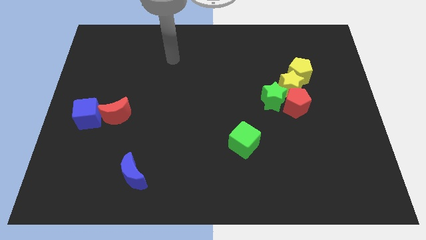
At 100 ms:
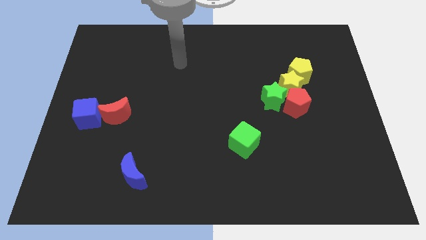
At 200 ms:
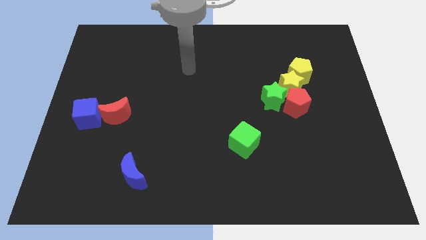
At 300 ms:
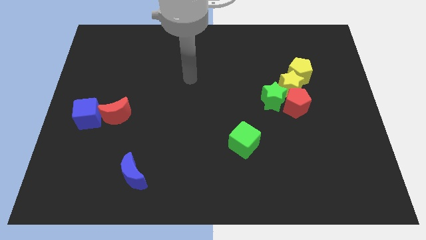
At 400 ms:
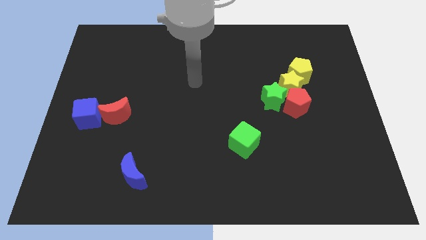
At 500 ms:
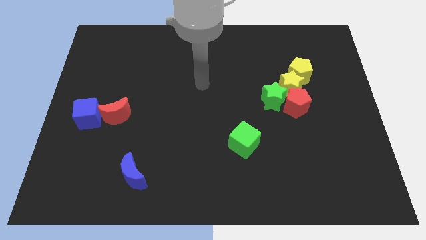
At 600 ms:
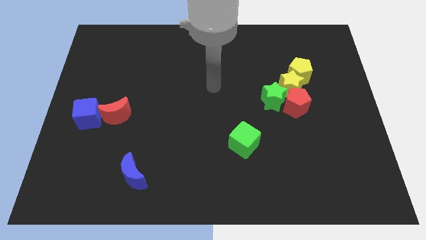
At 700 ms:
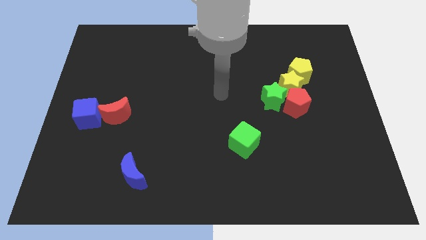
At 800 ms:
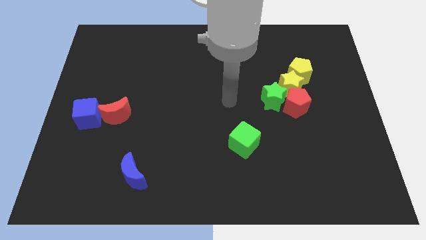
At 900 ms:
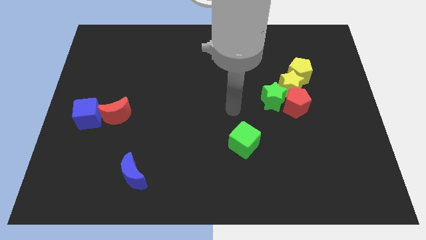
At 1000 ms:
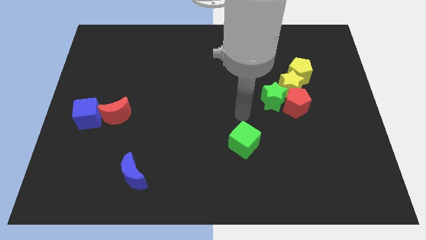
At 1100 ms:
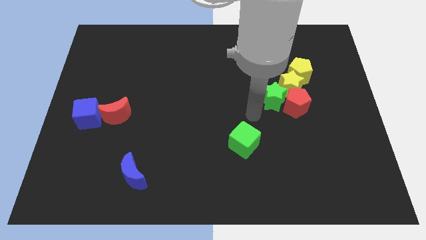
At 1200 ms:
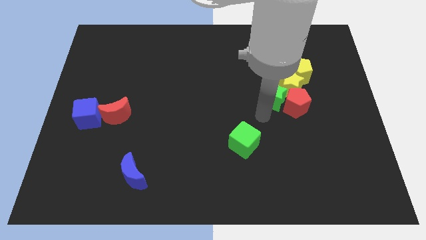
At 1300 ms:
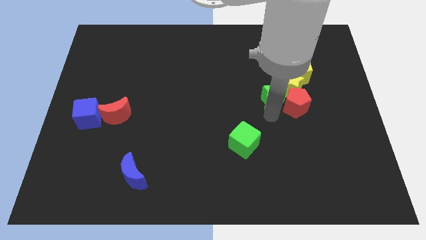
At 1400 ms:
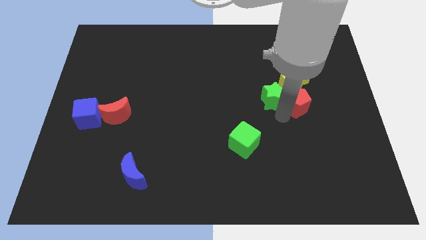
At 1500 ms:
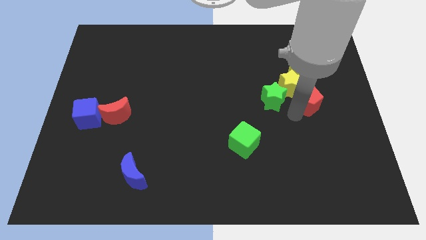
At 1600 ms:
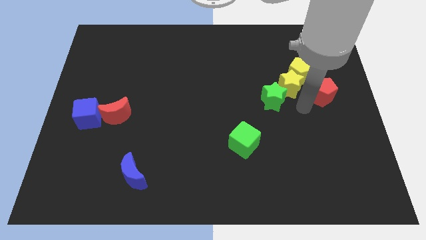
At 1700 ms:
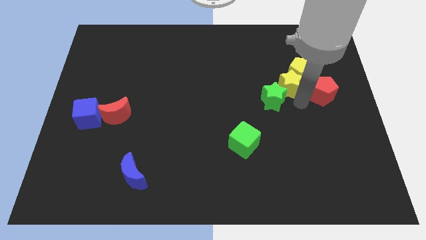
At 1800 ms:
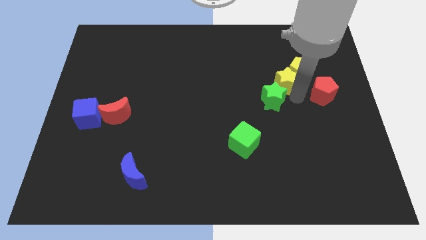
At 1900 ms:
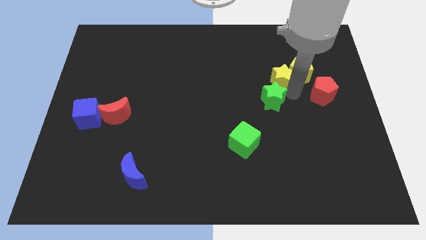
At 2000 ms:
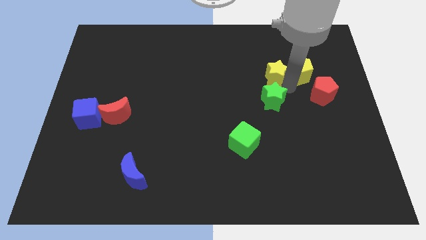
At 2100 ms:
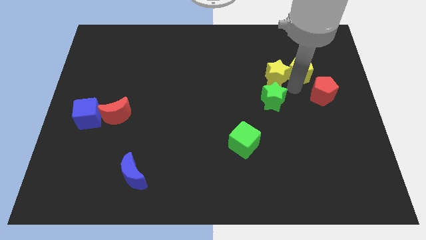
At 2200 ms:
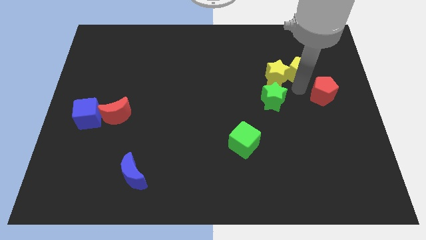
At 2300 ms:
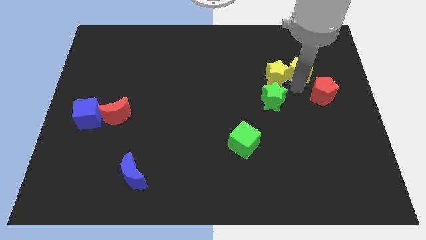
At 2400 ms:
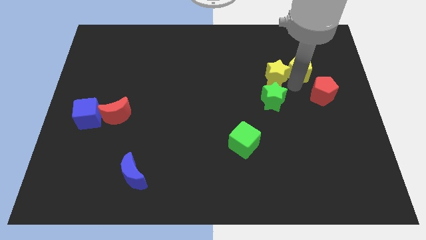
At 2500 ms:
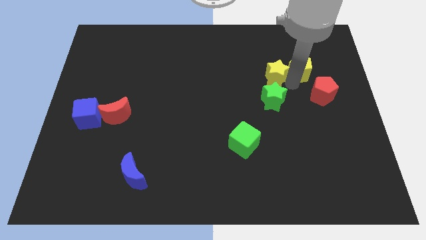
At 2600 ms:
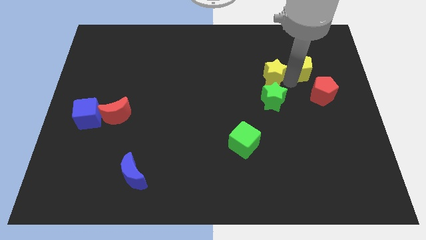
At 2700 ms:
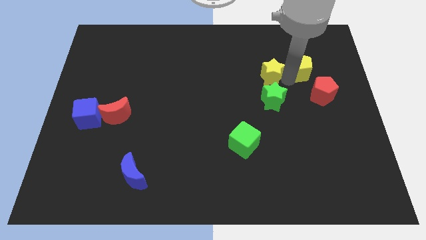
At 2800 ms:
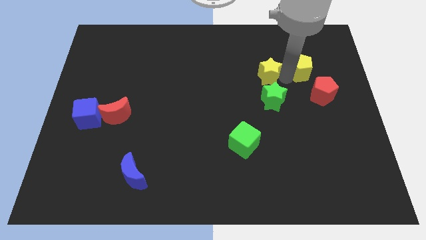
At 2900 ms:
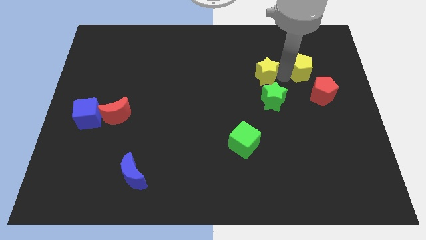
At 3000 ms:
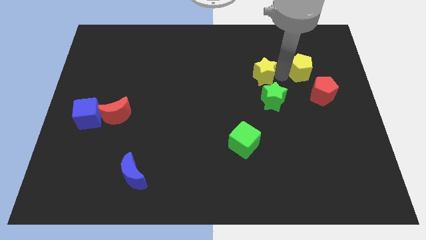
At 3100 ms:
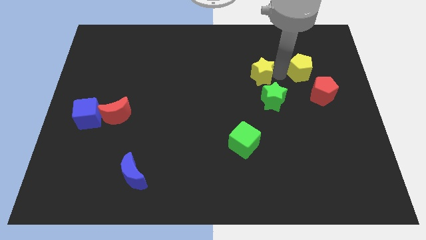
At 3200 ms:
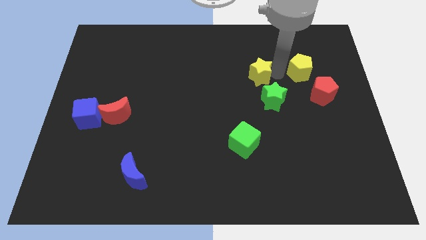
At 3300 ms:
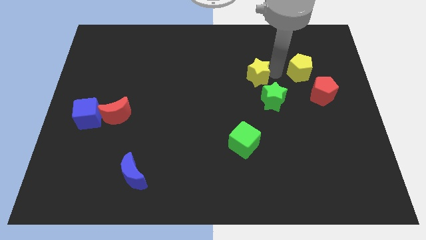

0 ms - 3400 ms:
pull the yellow star apart from the clump

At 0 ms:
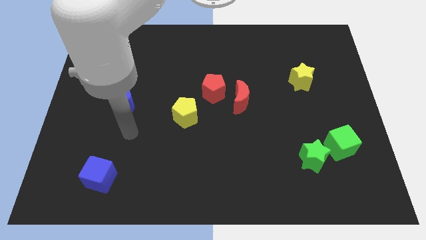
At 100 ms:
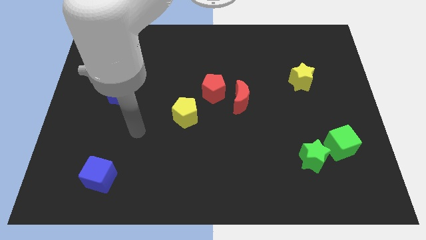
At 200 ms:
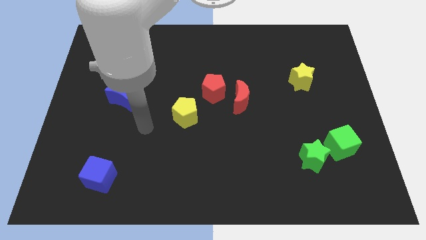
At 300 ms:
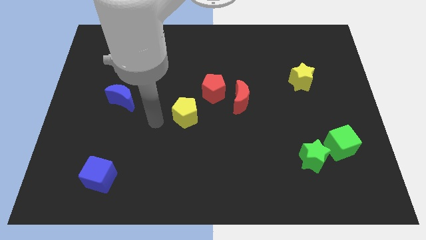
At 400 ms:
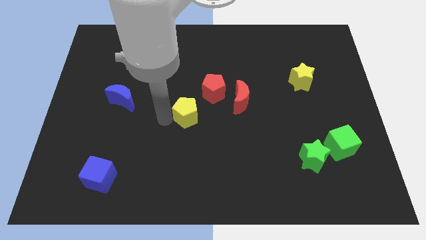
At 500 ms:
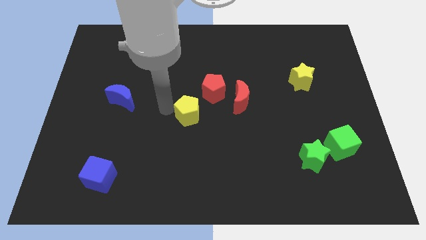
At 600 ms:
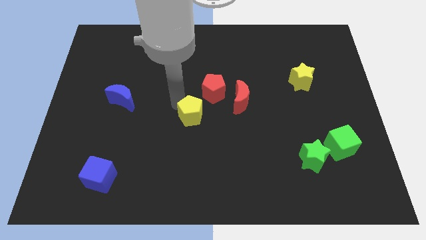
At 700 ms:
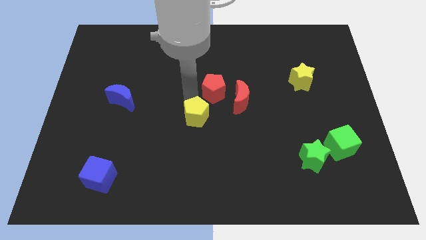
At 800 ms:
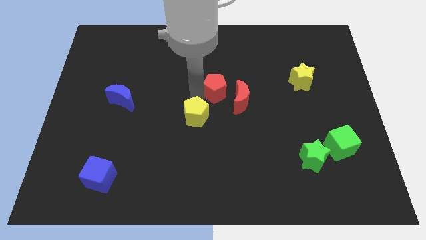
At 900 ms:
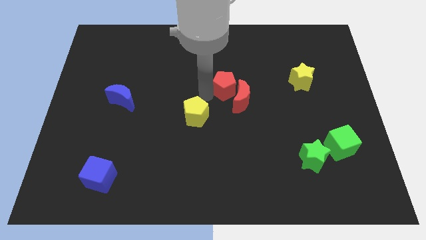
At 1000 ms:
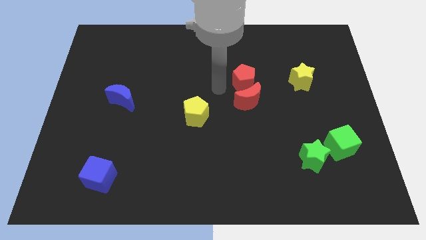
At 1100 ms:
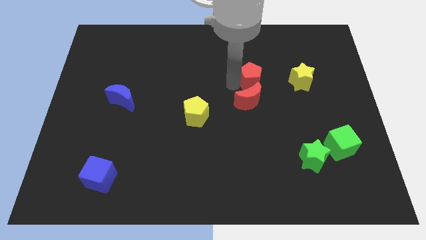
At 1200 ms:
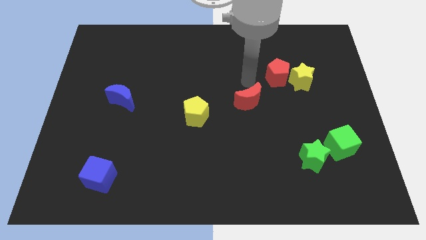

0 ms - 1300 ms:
separate the red moon from the red pentagon

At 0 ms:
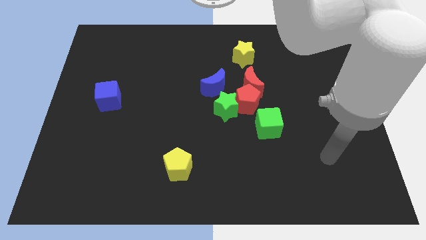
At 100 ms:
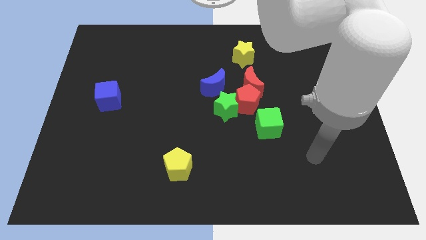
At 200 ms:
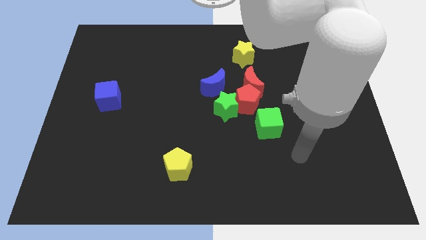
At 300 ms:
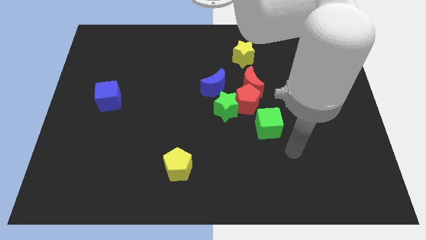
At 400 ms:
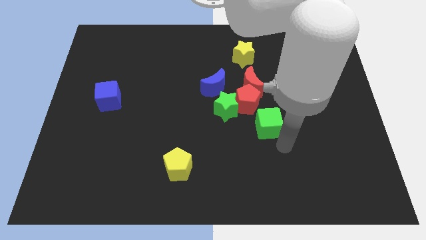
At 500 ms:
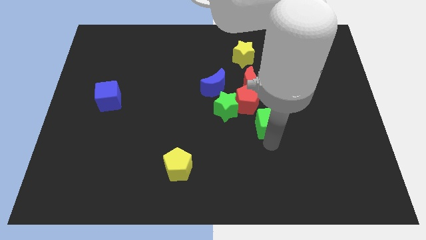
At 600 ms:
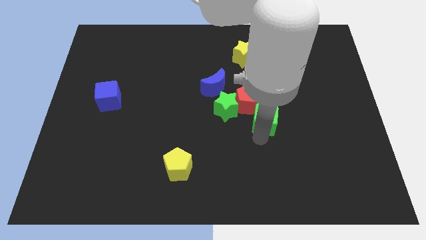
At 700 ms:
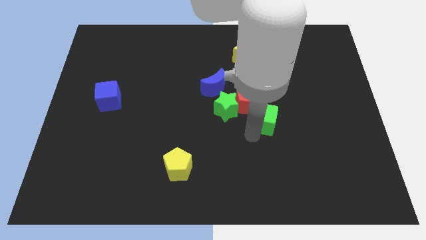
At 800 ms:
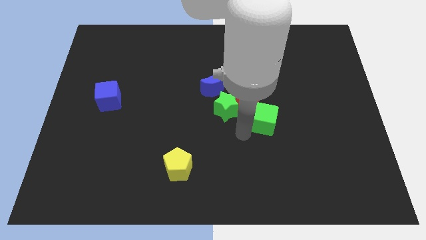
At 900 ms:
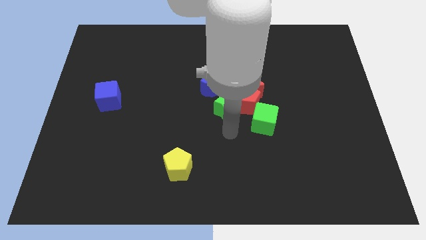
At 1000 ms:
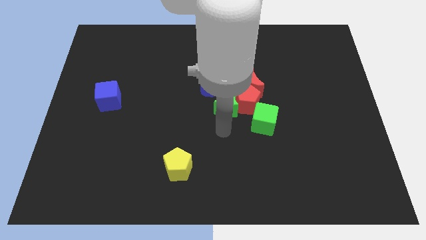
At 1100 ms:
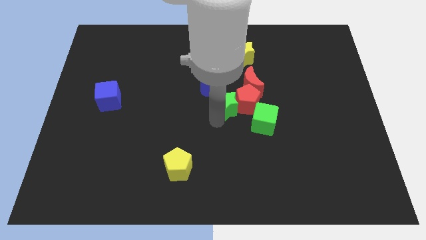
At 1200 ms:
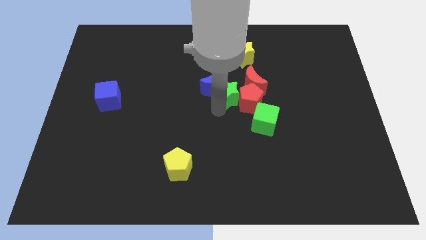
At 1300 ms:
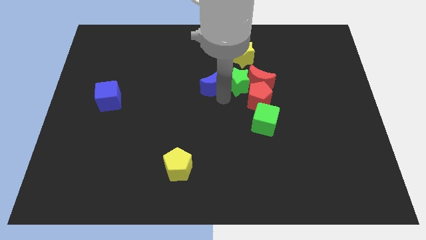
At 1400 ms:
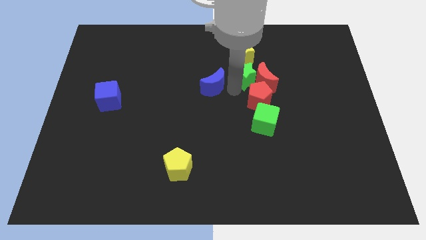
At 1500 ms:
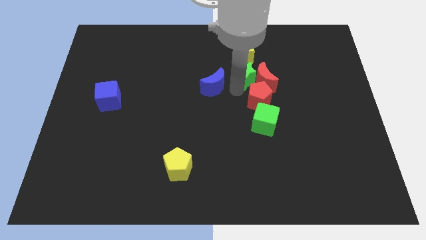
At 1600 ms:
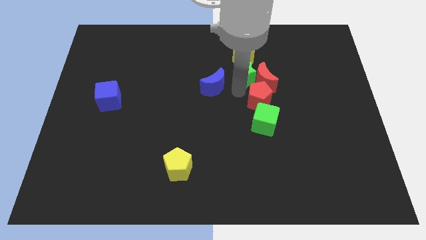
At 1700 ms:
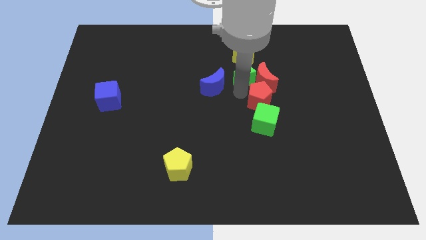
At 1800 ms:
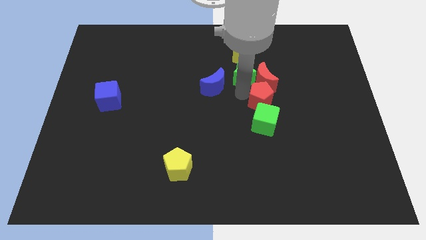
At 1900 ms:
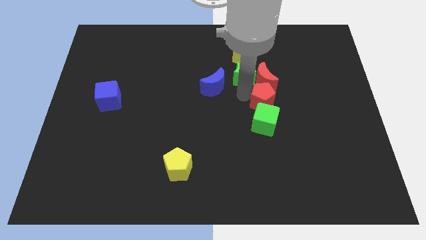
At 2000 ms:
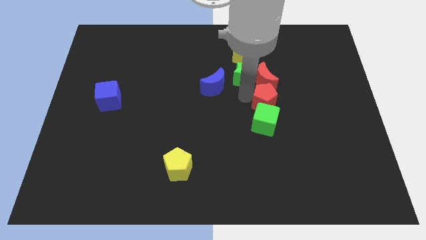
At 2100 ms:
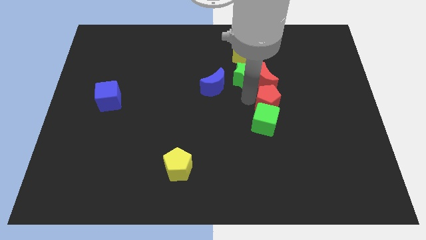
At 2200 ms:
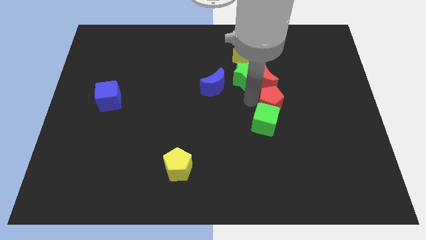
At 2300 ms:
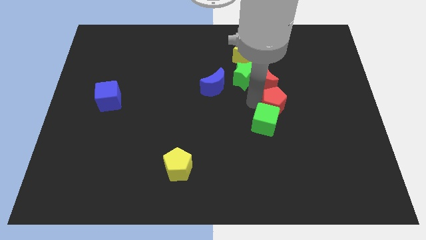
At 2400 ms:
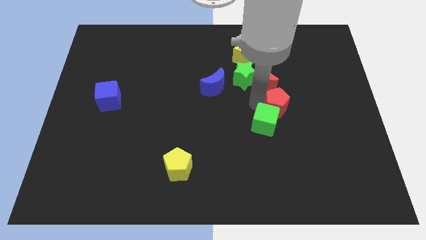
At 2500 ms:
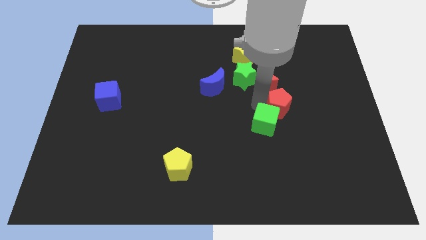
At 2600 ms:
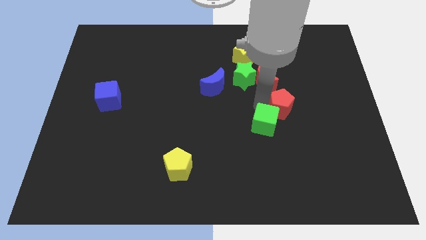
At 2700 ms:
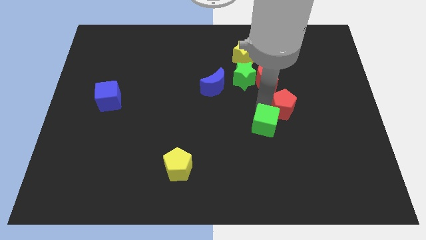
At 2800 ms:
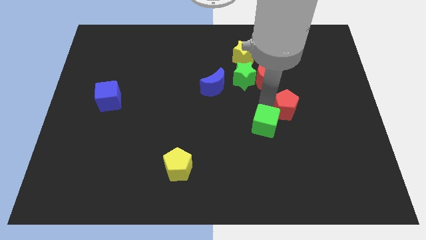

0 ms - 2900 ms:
move the red pentagon away from the clump

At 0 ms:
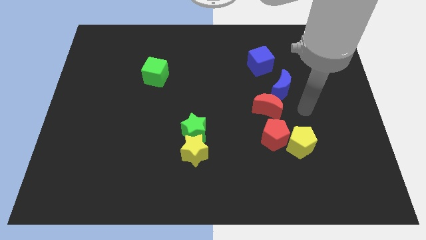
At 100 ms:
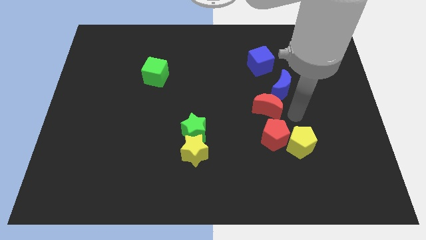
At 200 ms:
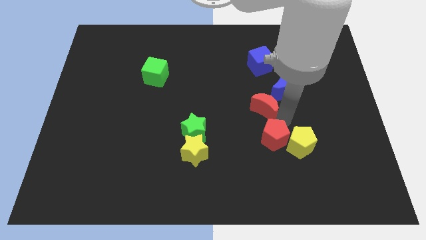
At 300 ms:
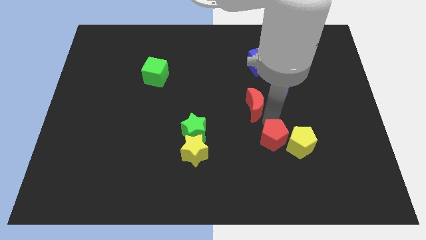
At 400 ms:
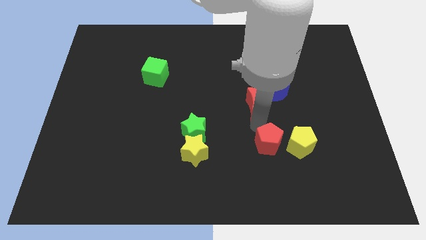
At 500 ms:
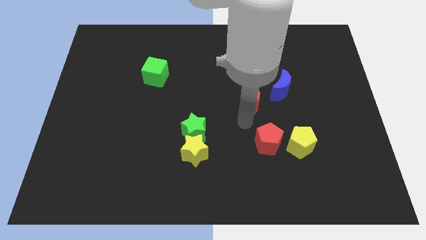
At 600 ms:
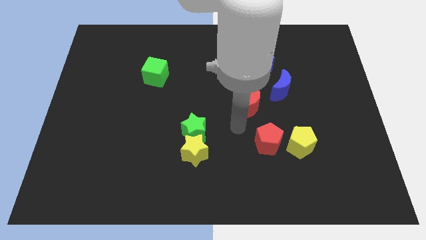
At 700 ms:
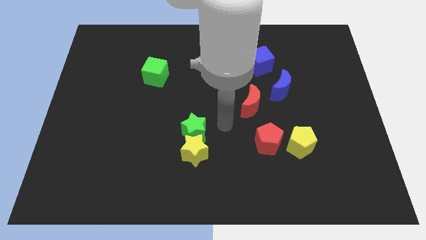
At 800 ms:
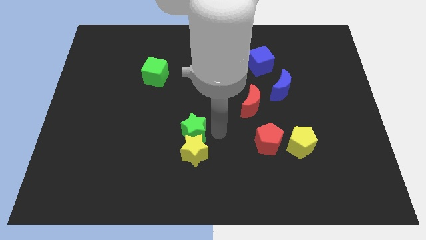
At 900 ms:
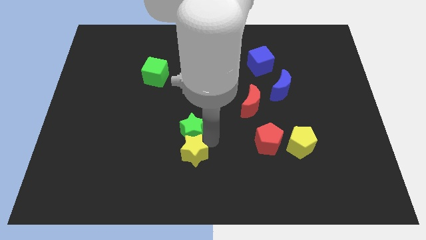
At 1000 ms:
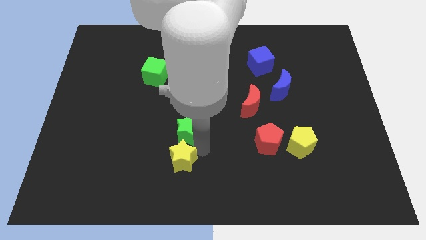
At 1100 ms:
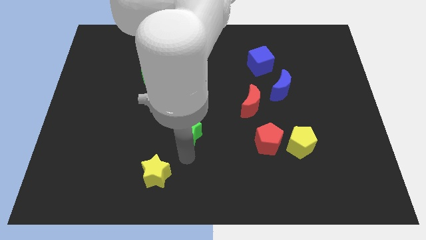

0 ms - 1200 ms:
move the green star away from the yellow star

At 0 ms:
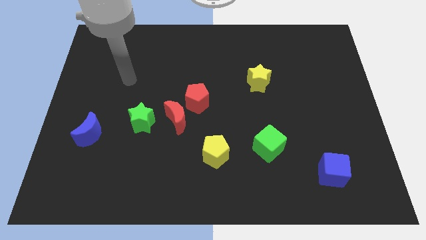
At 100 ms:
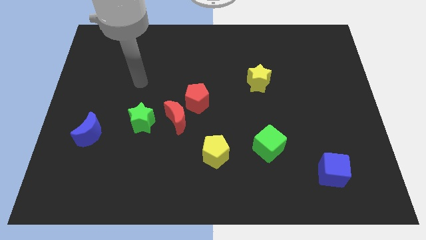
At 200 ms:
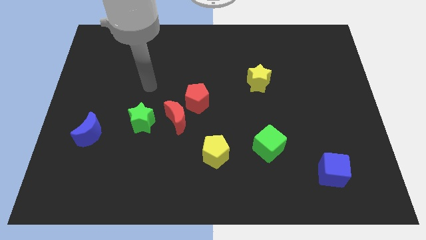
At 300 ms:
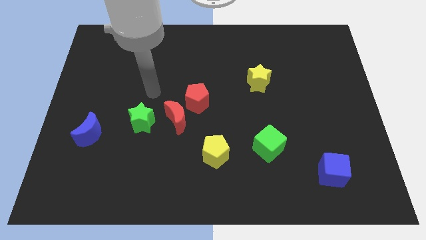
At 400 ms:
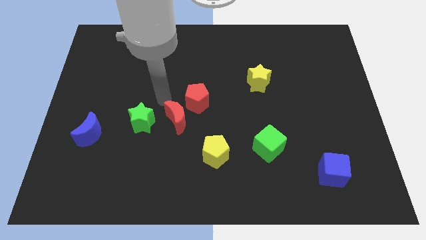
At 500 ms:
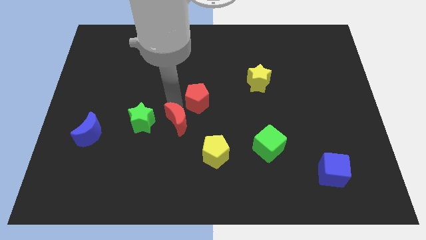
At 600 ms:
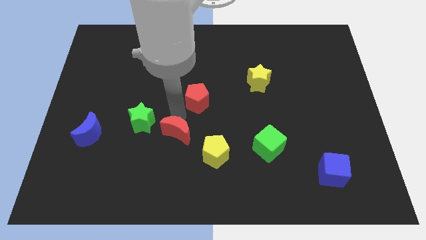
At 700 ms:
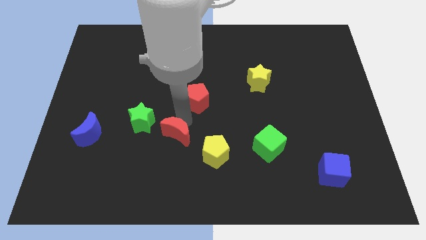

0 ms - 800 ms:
move the red pentagon away from the red moon
